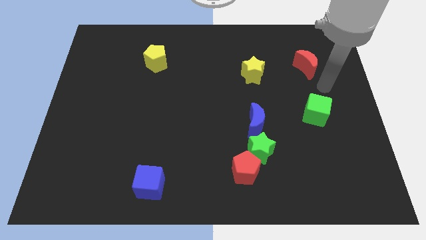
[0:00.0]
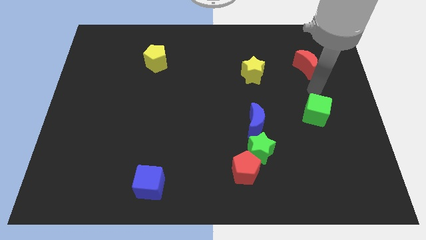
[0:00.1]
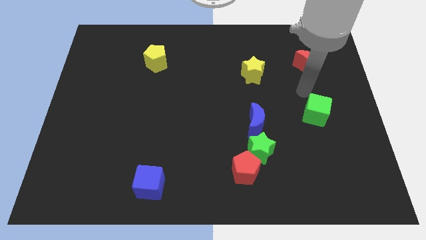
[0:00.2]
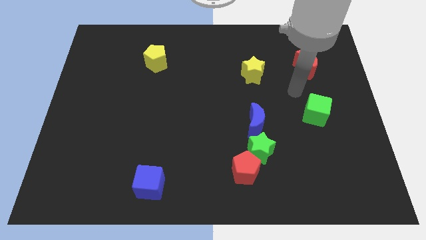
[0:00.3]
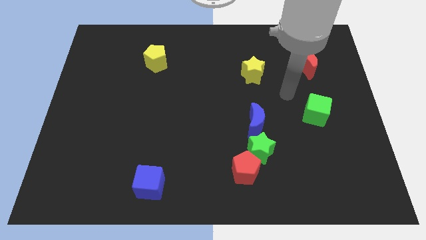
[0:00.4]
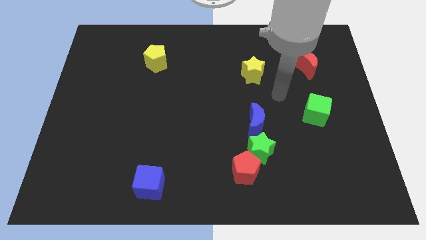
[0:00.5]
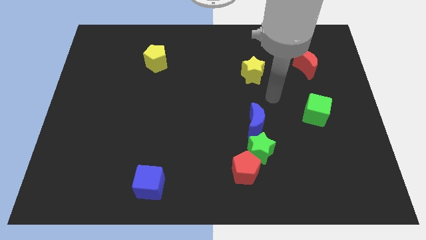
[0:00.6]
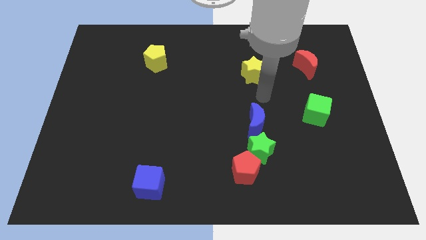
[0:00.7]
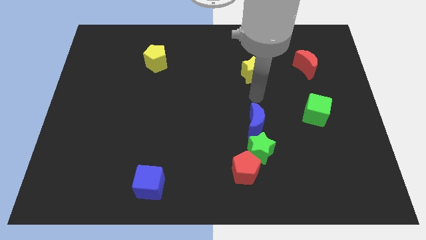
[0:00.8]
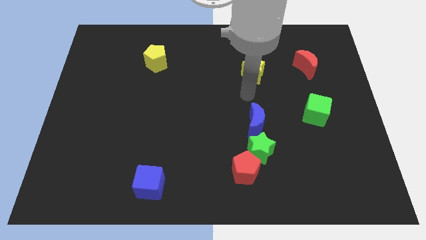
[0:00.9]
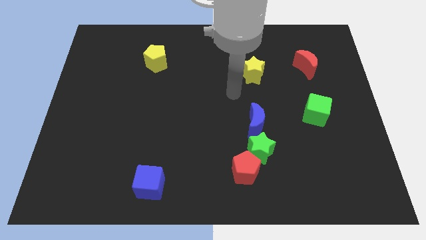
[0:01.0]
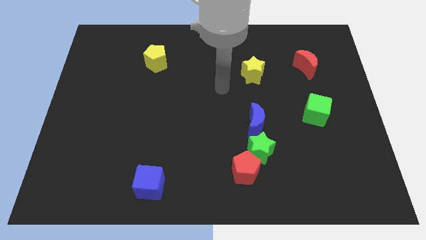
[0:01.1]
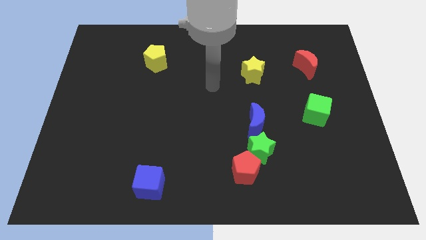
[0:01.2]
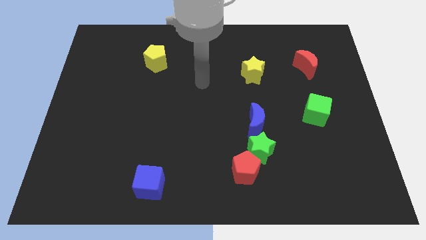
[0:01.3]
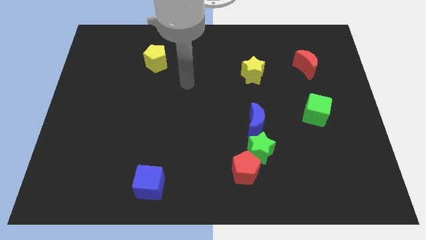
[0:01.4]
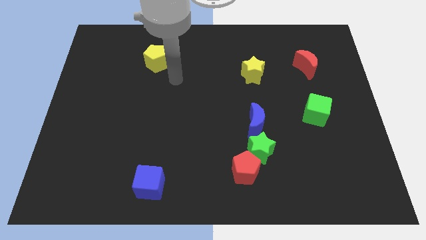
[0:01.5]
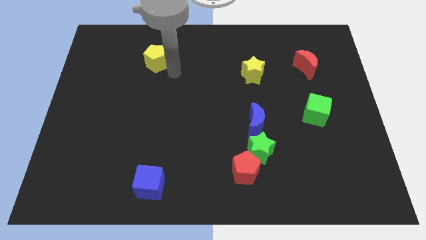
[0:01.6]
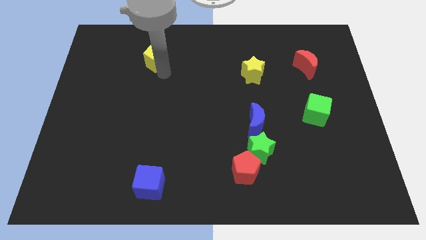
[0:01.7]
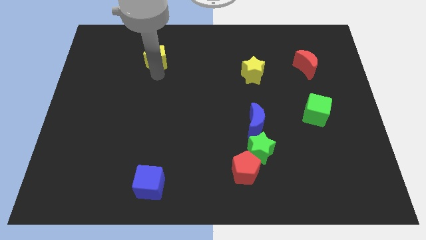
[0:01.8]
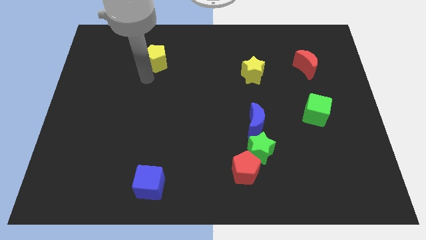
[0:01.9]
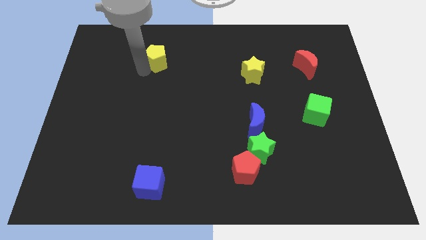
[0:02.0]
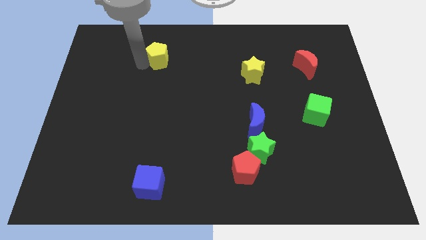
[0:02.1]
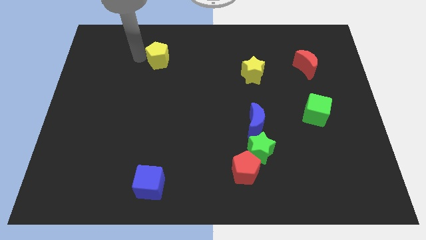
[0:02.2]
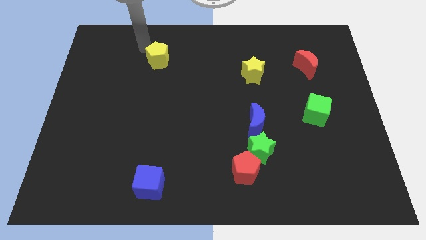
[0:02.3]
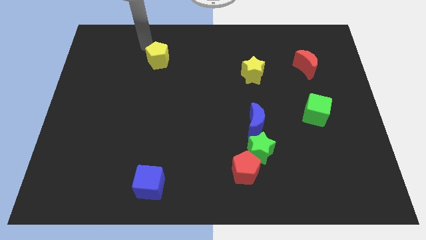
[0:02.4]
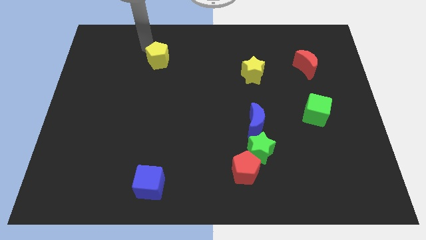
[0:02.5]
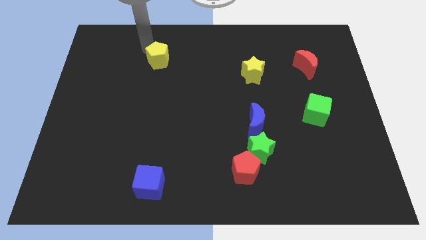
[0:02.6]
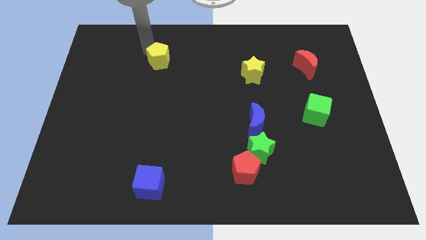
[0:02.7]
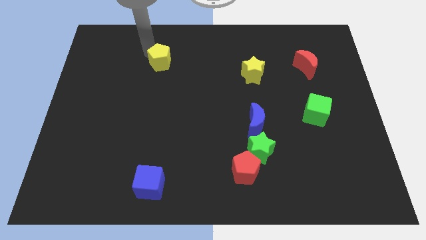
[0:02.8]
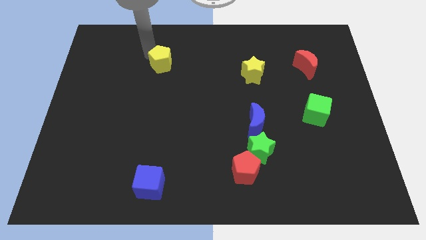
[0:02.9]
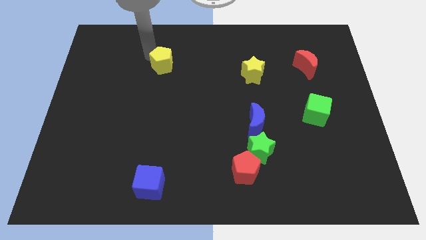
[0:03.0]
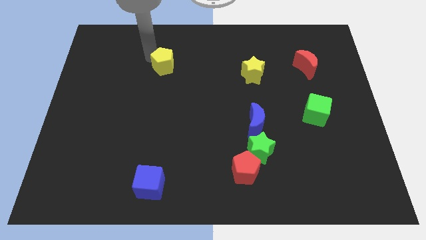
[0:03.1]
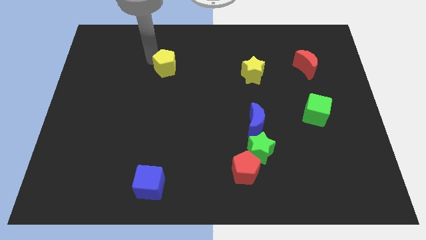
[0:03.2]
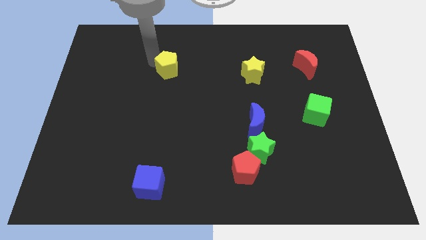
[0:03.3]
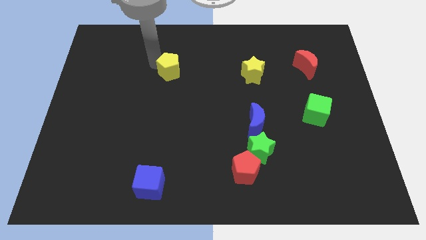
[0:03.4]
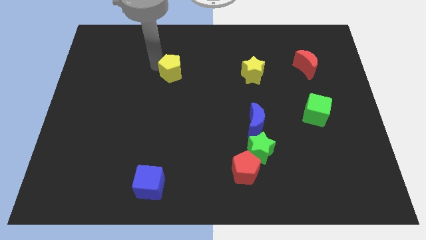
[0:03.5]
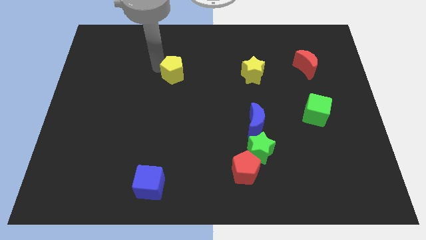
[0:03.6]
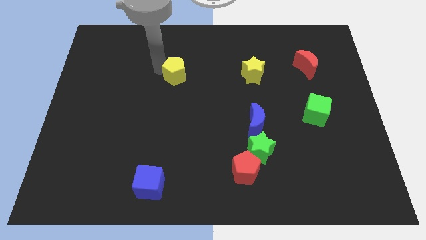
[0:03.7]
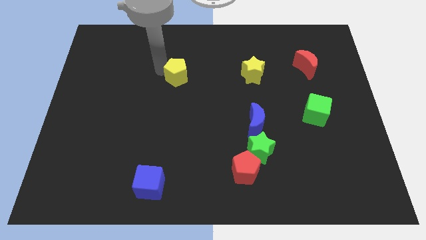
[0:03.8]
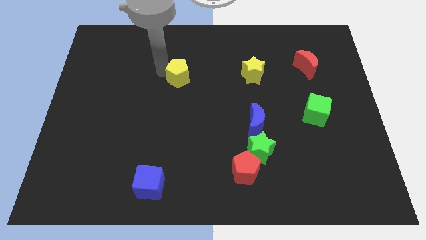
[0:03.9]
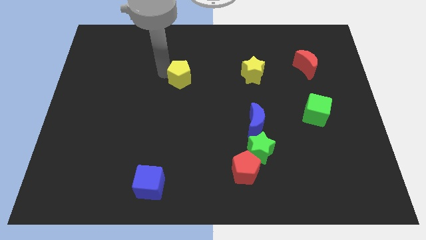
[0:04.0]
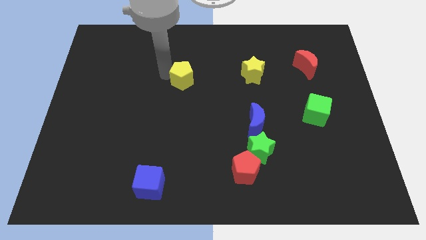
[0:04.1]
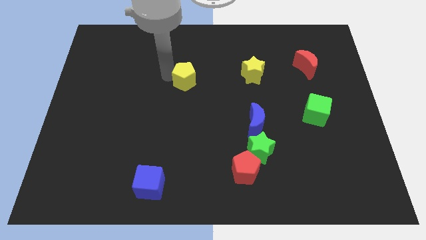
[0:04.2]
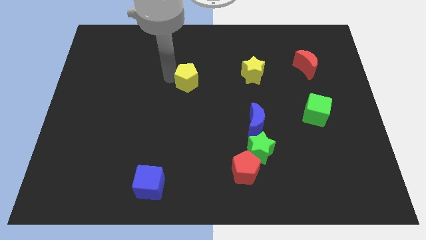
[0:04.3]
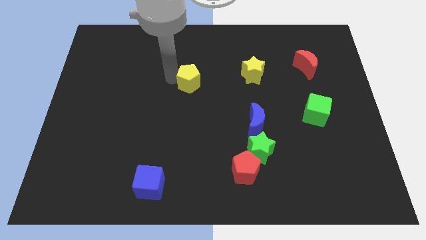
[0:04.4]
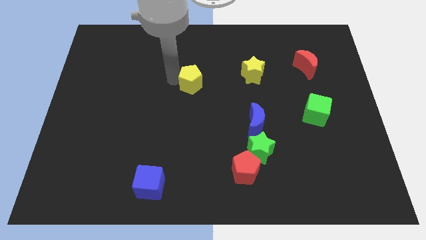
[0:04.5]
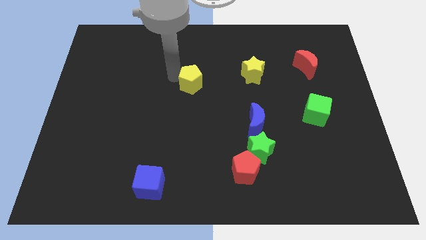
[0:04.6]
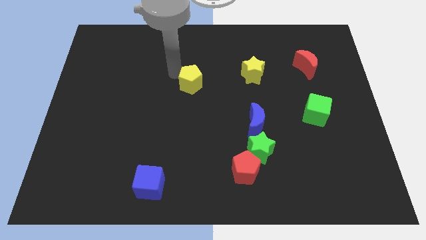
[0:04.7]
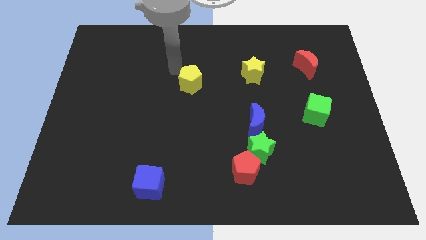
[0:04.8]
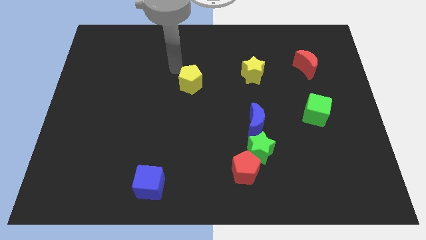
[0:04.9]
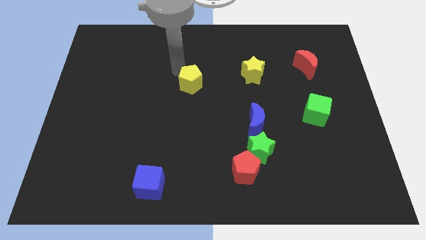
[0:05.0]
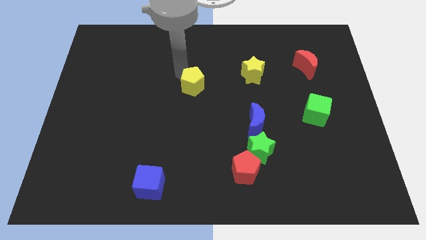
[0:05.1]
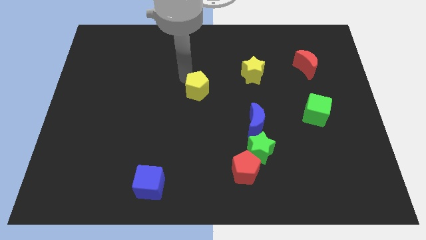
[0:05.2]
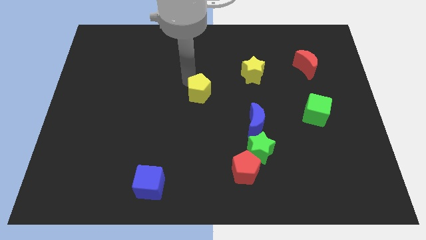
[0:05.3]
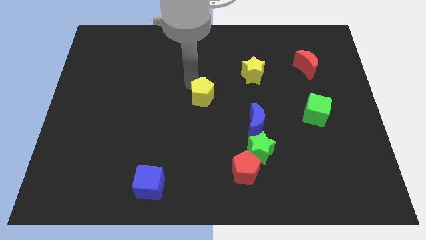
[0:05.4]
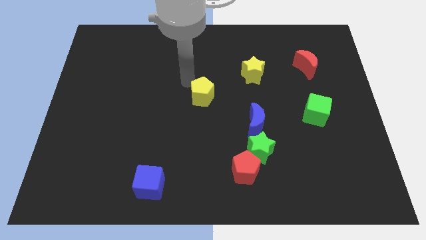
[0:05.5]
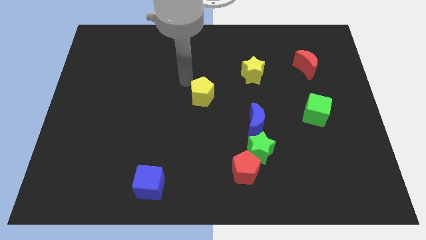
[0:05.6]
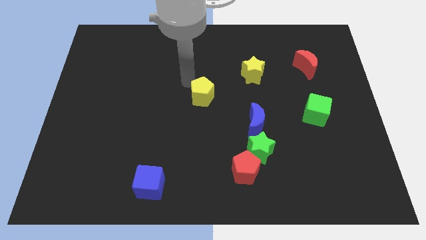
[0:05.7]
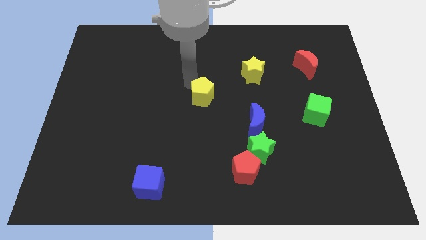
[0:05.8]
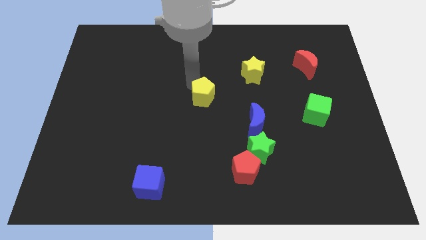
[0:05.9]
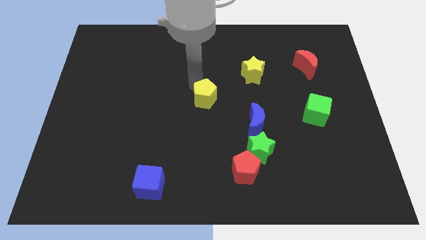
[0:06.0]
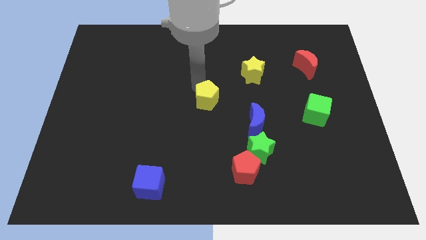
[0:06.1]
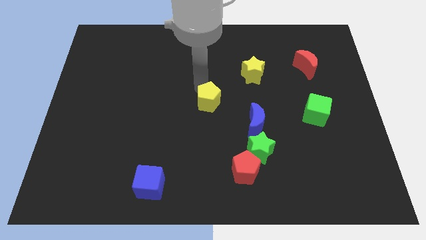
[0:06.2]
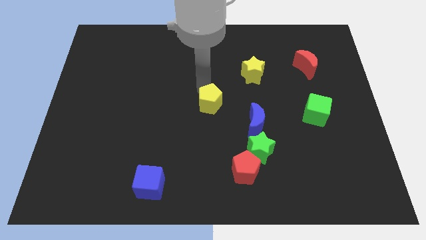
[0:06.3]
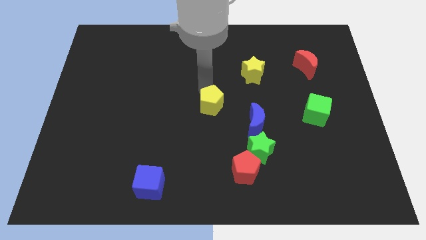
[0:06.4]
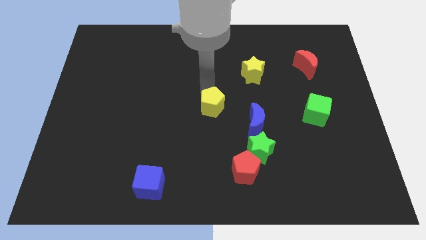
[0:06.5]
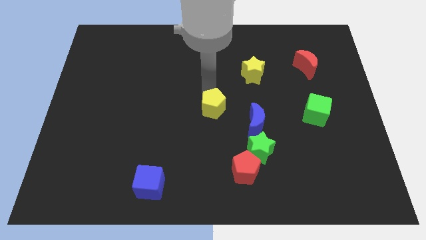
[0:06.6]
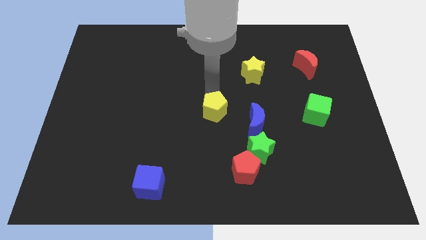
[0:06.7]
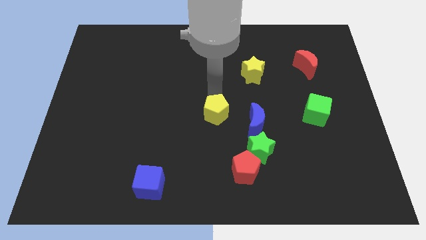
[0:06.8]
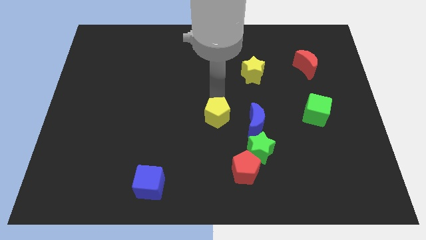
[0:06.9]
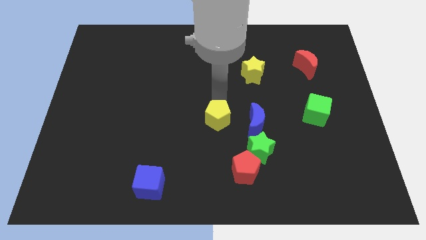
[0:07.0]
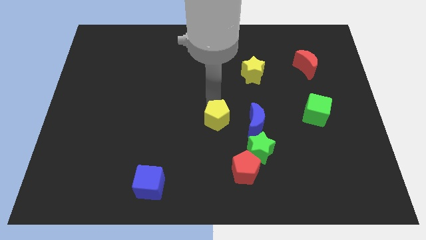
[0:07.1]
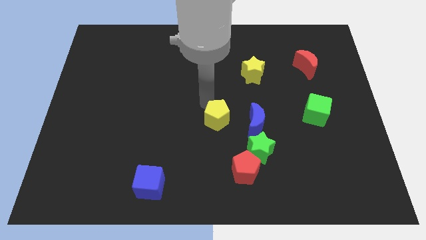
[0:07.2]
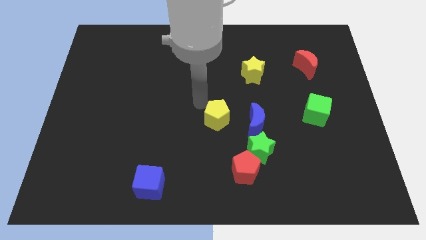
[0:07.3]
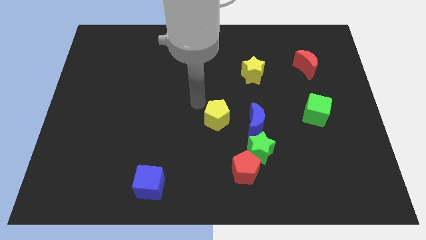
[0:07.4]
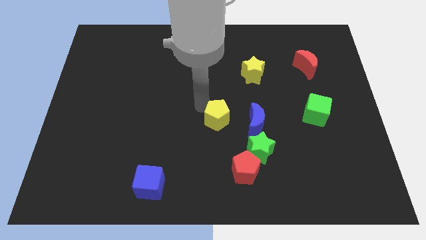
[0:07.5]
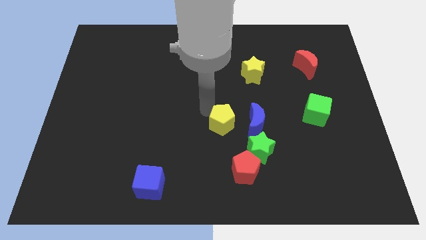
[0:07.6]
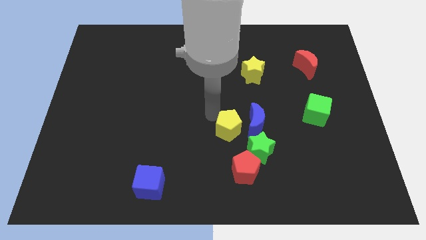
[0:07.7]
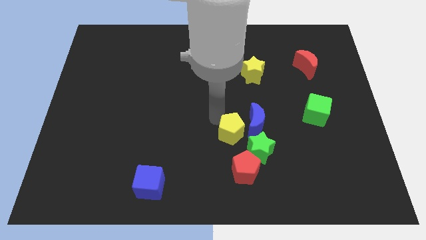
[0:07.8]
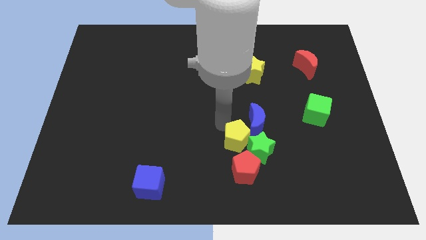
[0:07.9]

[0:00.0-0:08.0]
push the yellow pentagon close to the green star
